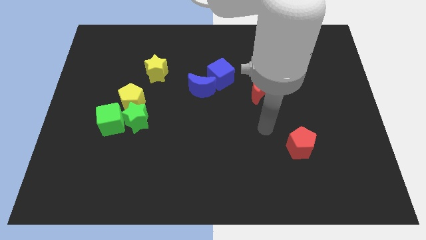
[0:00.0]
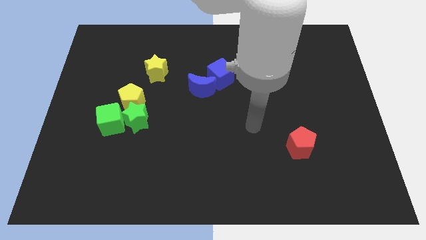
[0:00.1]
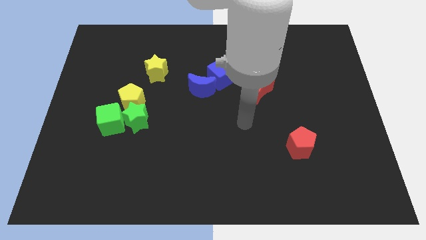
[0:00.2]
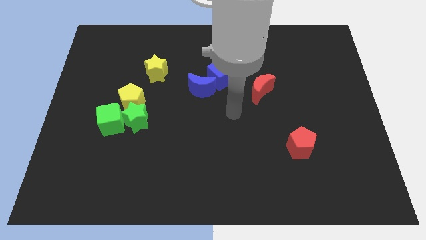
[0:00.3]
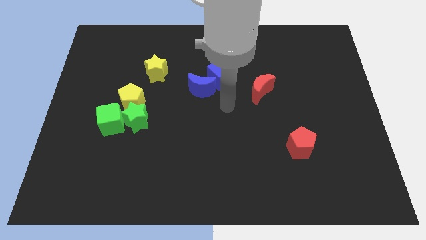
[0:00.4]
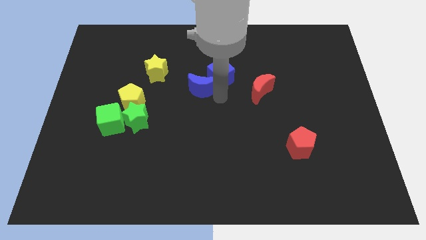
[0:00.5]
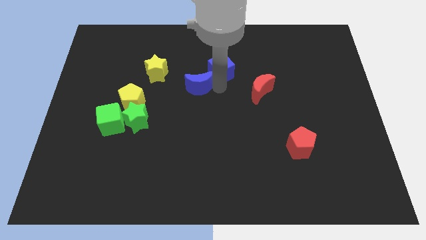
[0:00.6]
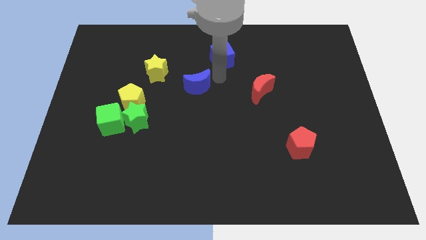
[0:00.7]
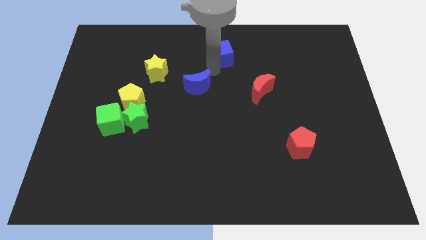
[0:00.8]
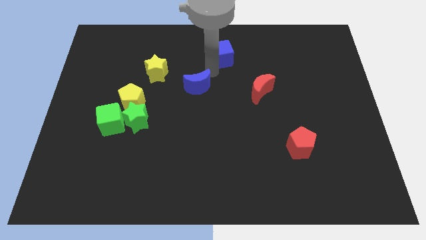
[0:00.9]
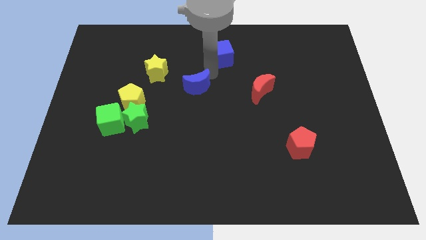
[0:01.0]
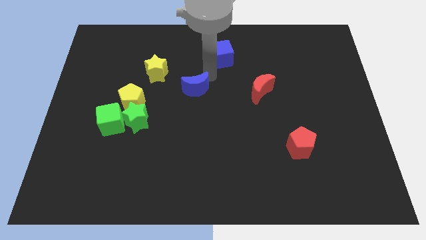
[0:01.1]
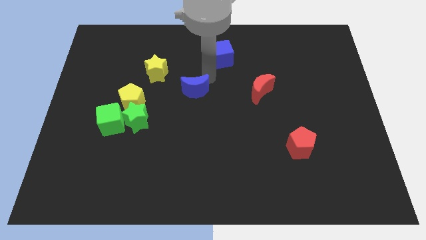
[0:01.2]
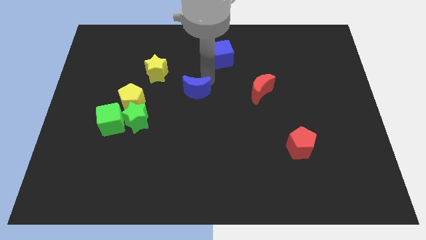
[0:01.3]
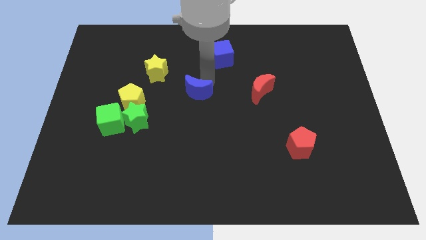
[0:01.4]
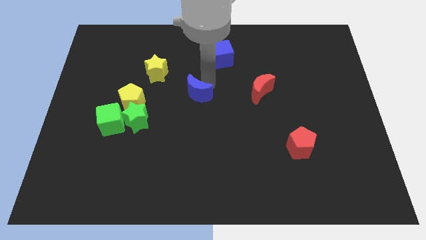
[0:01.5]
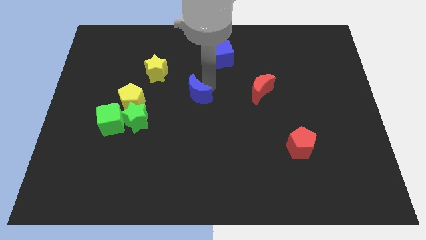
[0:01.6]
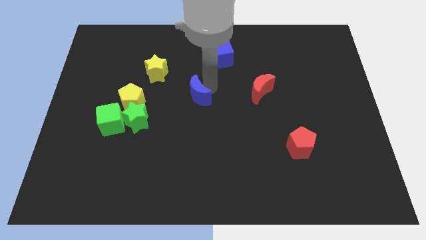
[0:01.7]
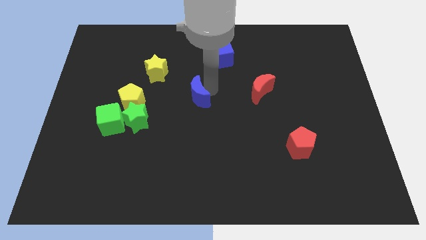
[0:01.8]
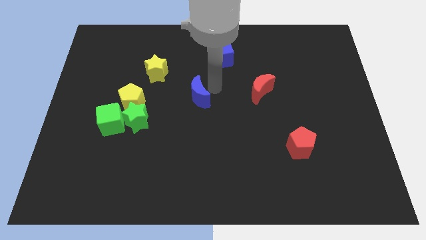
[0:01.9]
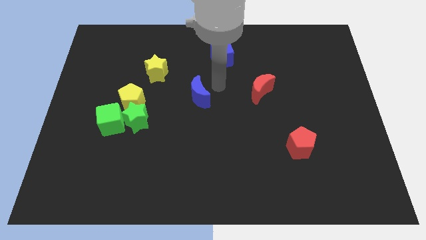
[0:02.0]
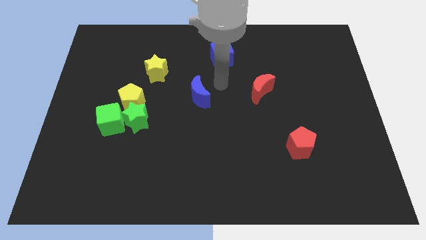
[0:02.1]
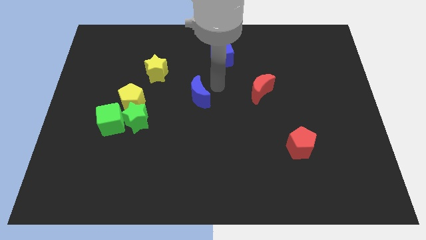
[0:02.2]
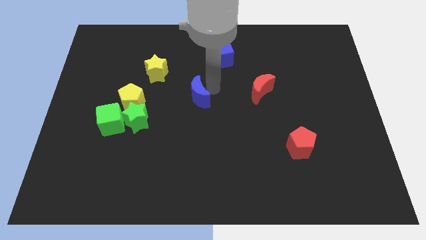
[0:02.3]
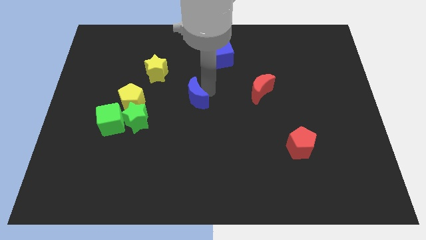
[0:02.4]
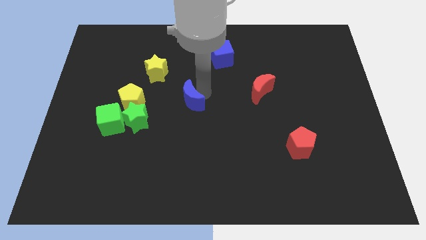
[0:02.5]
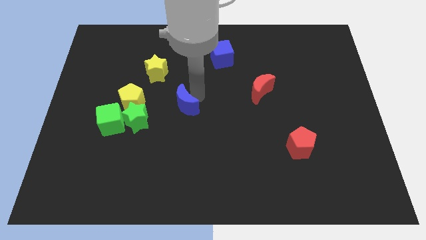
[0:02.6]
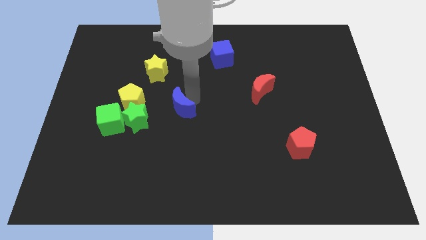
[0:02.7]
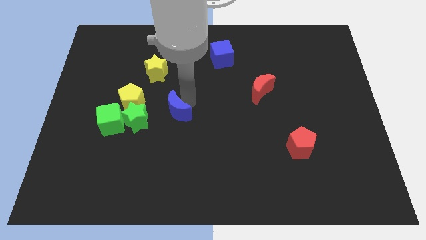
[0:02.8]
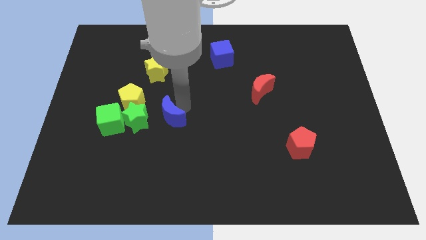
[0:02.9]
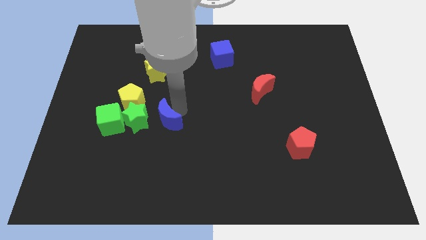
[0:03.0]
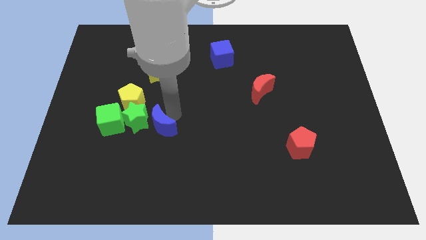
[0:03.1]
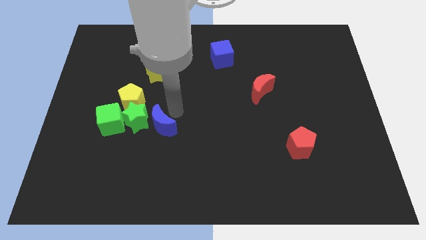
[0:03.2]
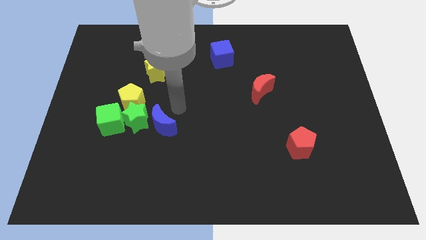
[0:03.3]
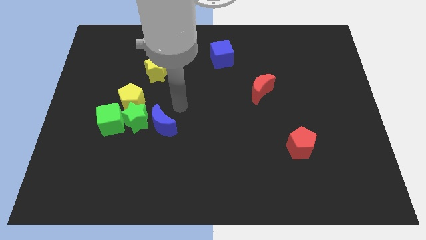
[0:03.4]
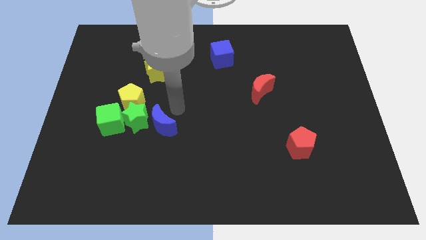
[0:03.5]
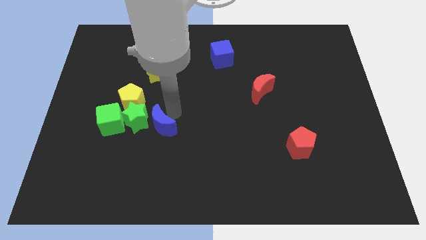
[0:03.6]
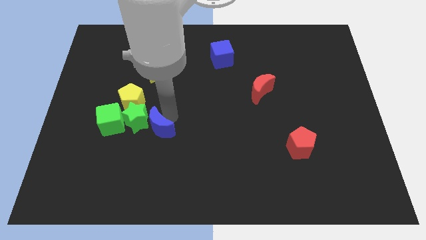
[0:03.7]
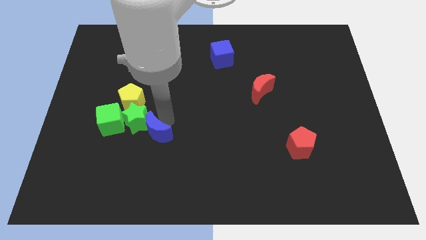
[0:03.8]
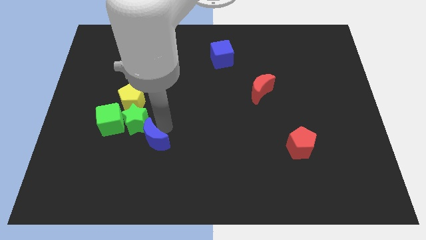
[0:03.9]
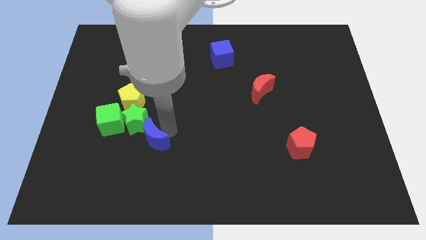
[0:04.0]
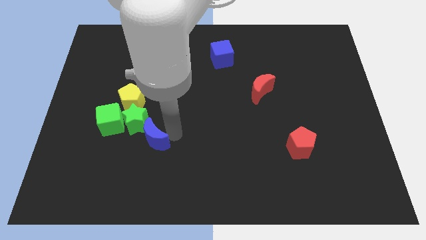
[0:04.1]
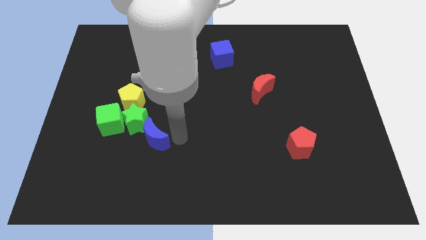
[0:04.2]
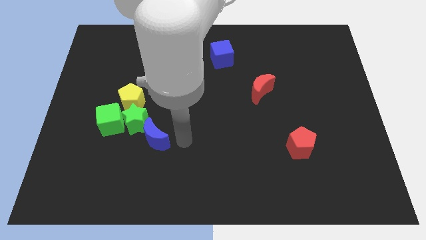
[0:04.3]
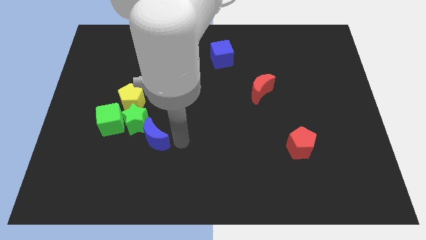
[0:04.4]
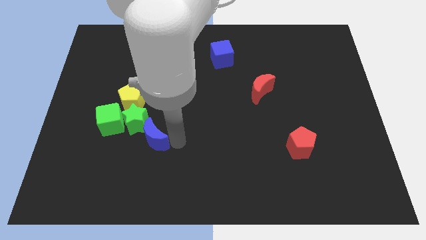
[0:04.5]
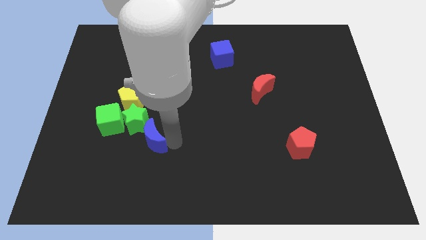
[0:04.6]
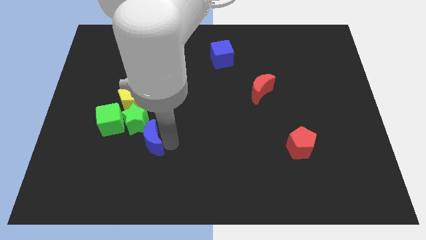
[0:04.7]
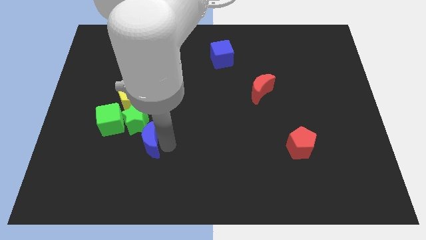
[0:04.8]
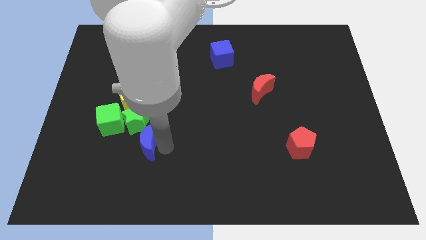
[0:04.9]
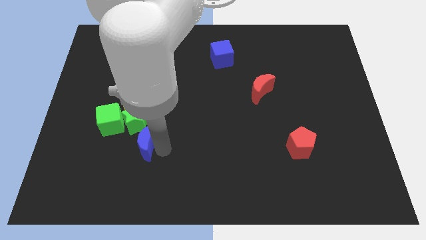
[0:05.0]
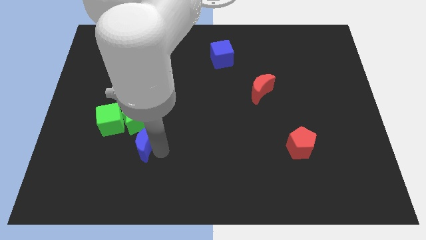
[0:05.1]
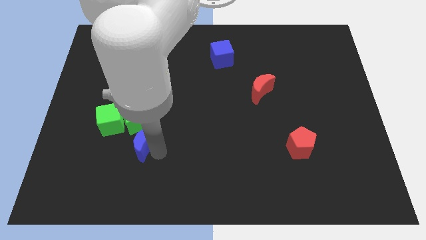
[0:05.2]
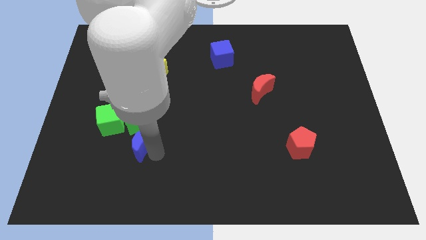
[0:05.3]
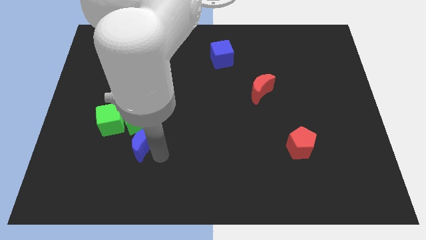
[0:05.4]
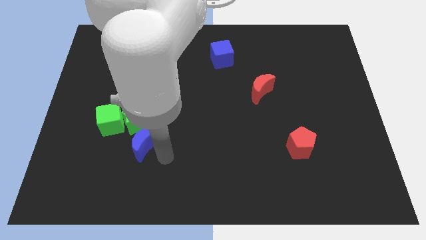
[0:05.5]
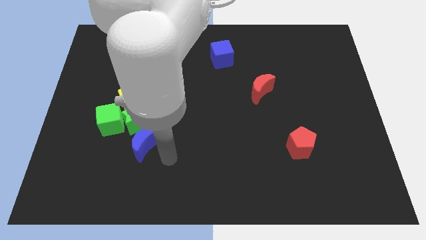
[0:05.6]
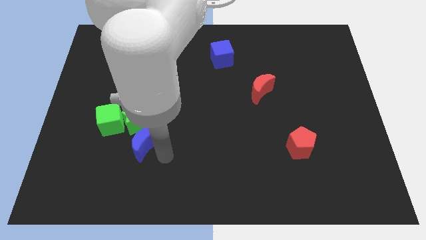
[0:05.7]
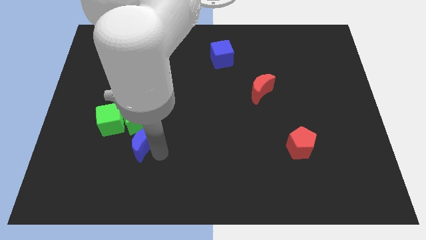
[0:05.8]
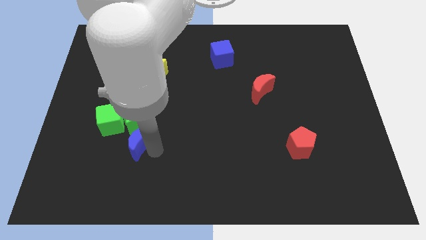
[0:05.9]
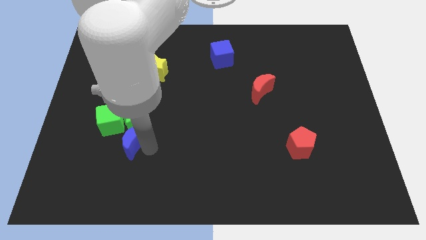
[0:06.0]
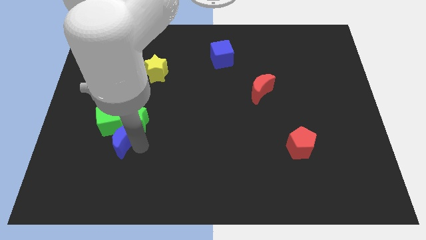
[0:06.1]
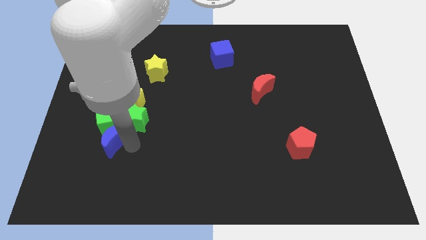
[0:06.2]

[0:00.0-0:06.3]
slide the blue moon next to the green cube

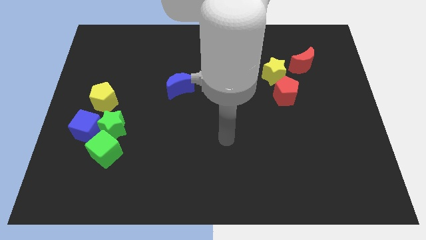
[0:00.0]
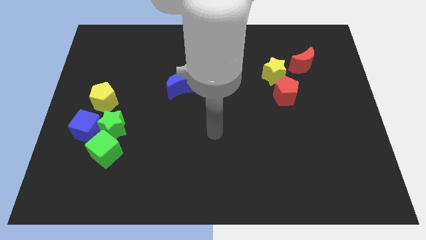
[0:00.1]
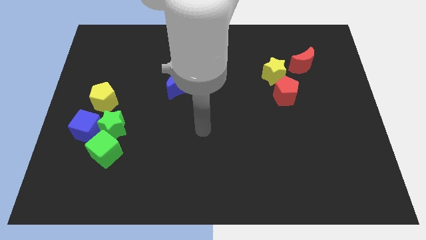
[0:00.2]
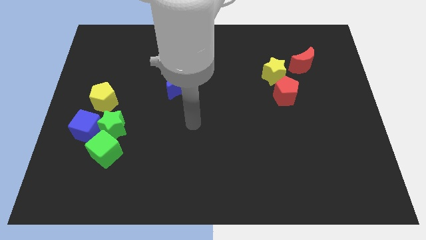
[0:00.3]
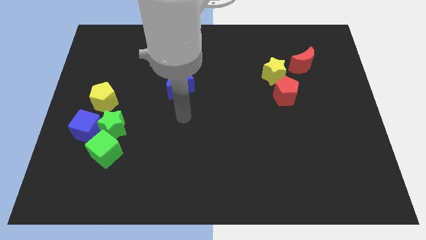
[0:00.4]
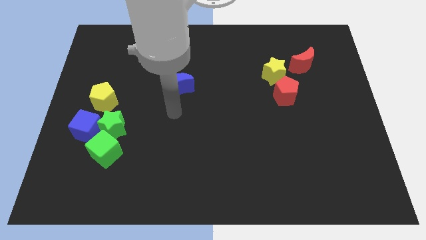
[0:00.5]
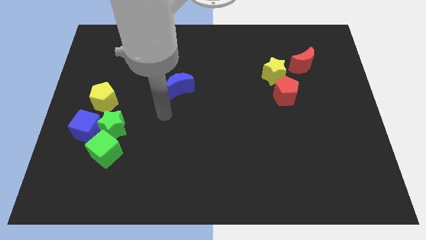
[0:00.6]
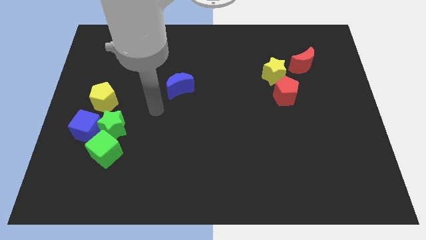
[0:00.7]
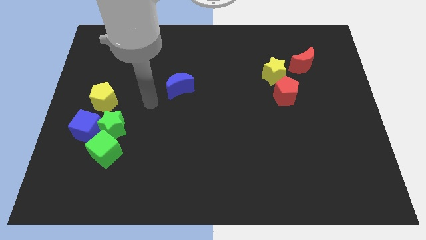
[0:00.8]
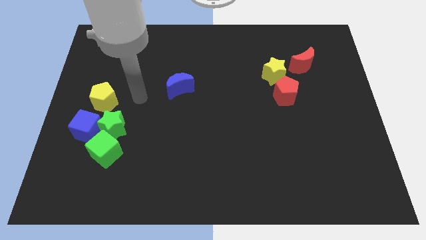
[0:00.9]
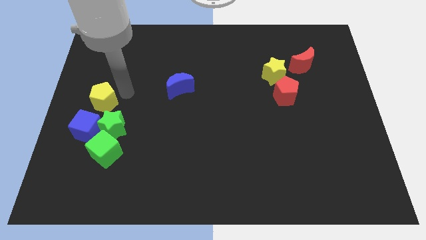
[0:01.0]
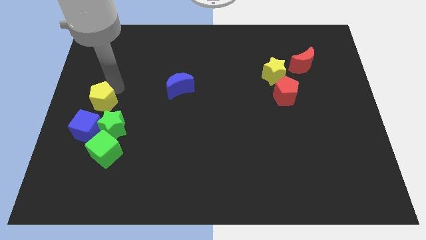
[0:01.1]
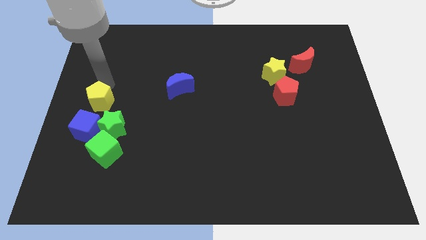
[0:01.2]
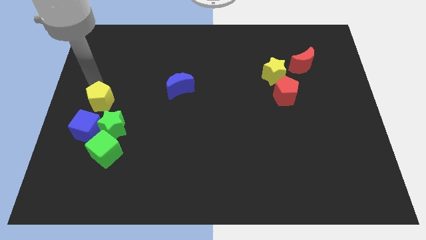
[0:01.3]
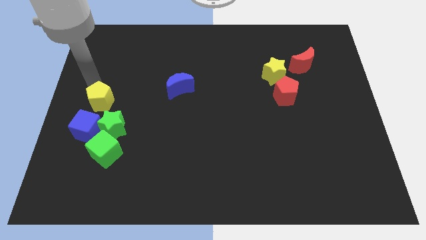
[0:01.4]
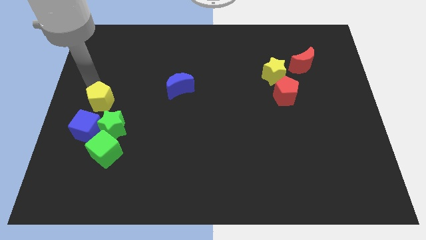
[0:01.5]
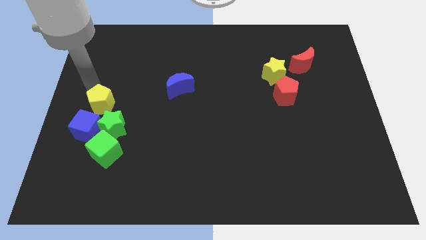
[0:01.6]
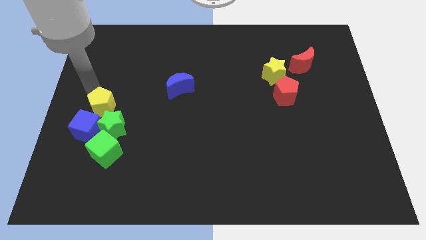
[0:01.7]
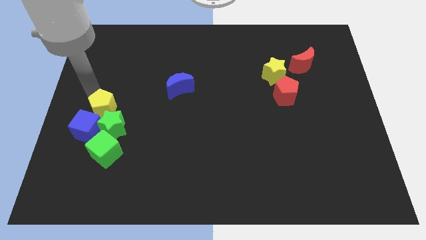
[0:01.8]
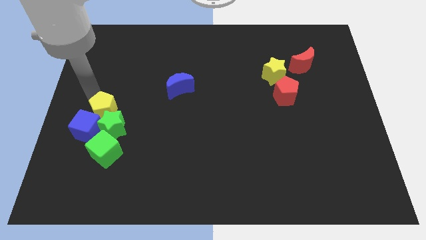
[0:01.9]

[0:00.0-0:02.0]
put the yellow pentagon to the green star
